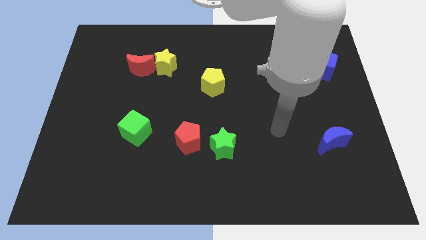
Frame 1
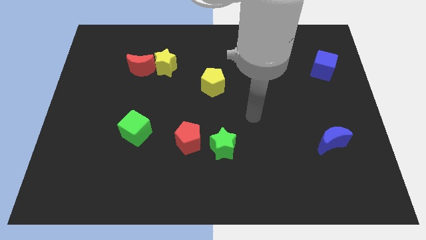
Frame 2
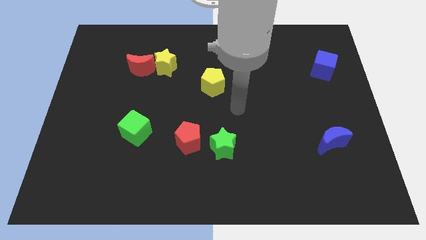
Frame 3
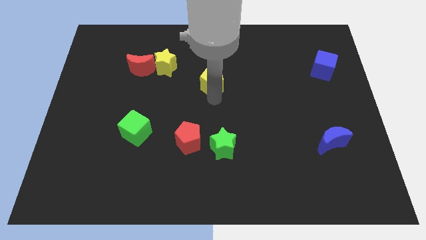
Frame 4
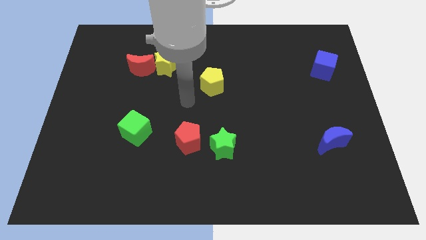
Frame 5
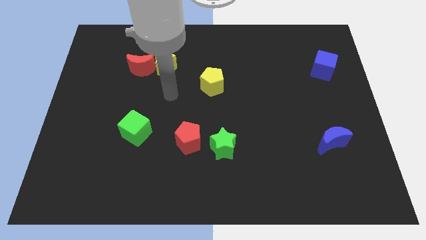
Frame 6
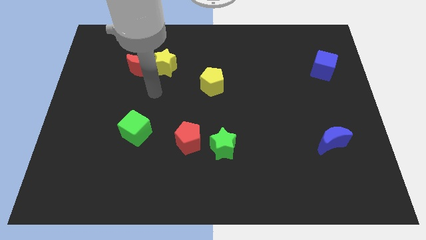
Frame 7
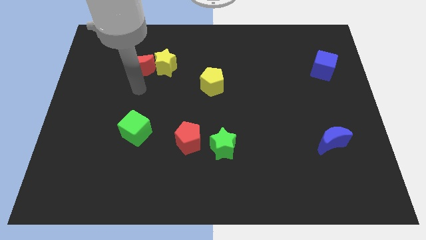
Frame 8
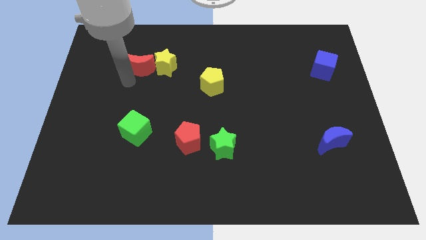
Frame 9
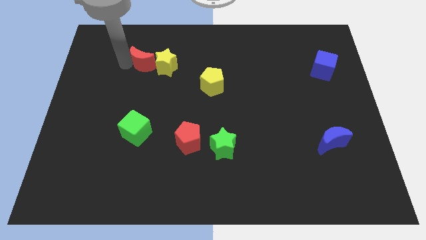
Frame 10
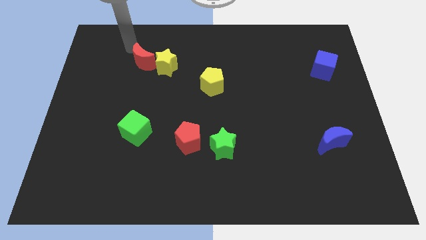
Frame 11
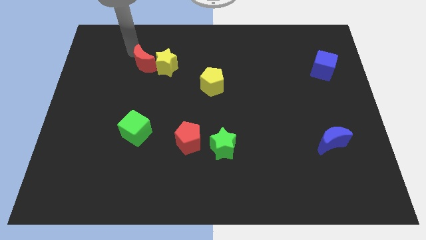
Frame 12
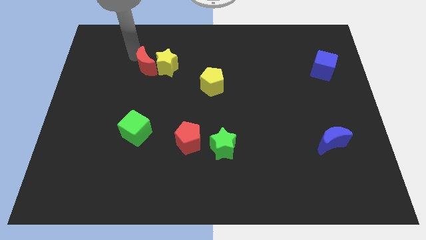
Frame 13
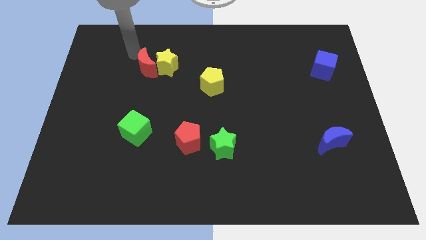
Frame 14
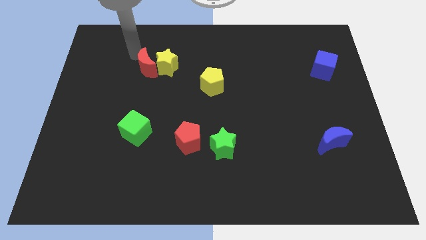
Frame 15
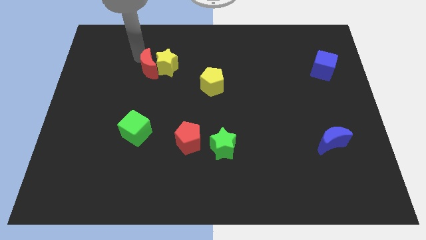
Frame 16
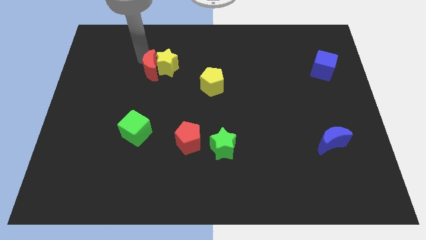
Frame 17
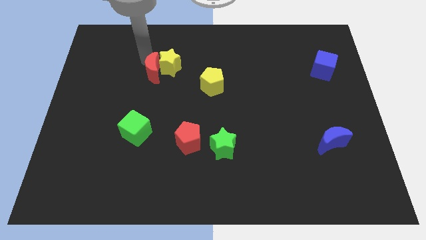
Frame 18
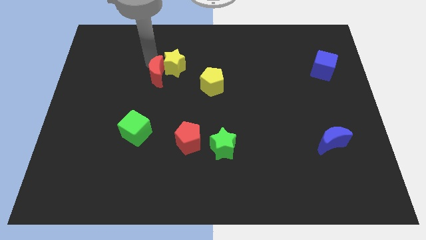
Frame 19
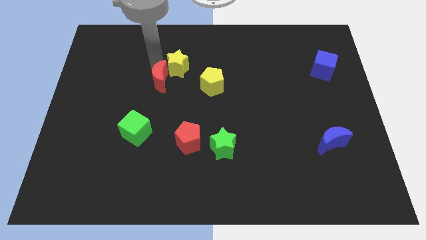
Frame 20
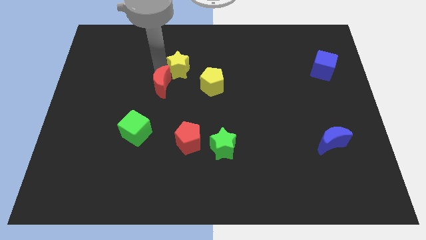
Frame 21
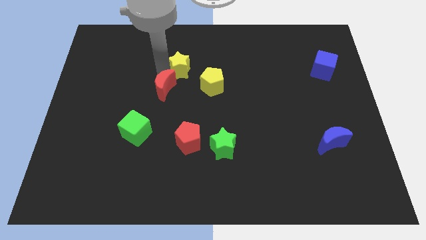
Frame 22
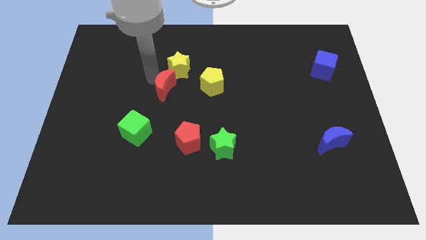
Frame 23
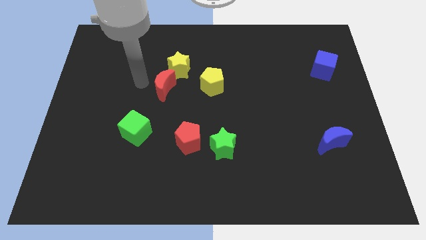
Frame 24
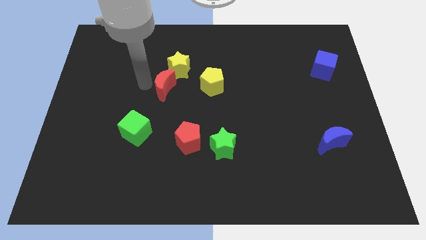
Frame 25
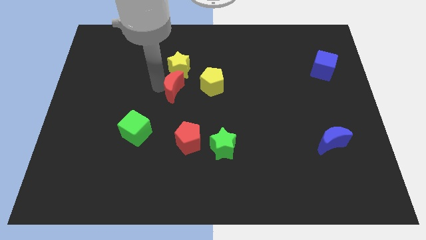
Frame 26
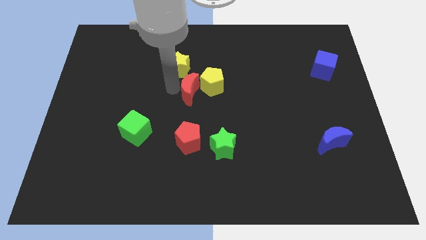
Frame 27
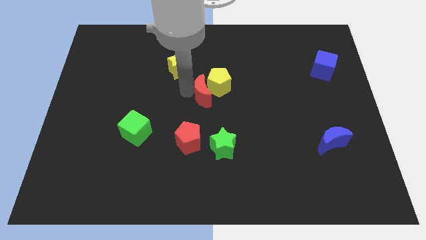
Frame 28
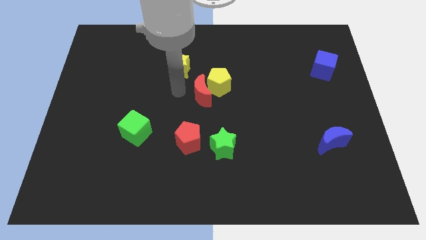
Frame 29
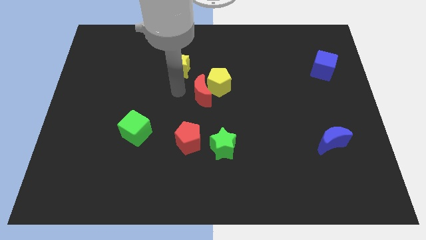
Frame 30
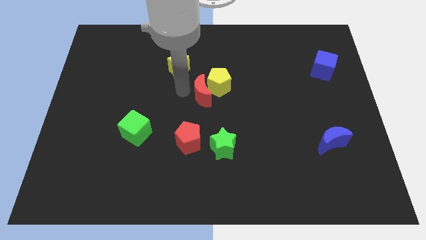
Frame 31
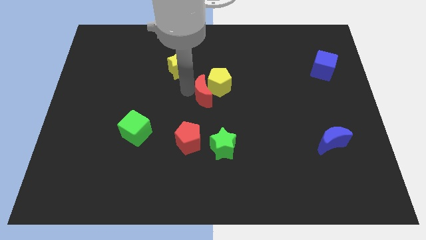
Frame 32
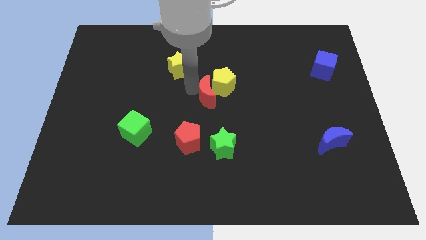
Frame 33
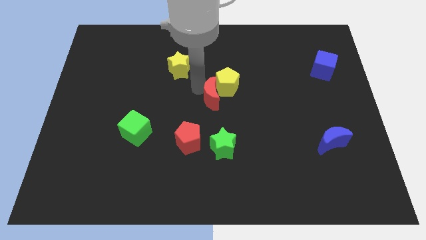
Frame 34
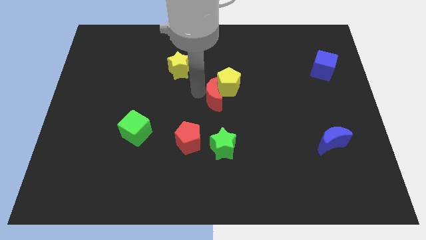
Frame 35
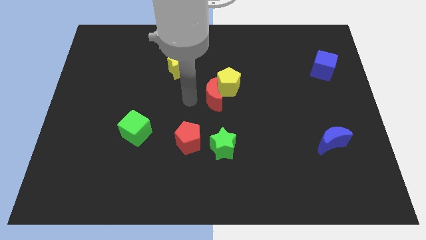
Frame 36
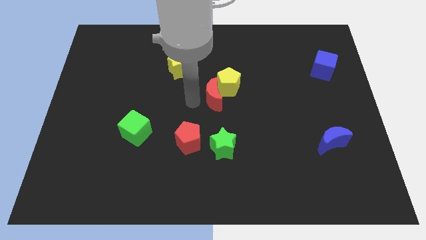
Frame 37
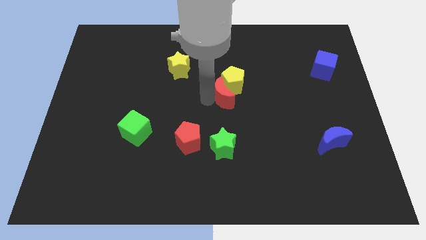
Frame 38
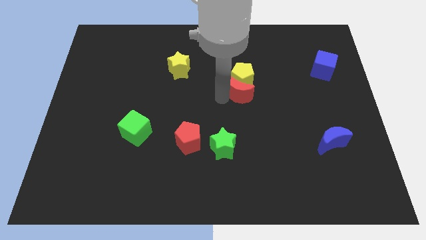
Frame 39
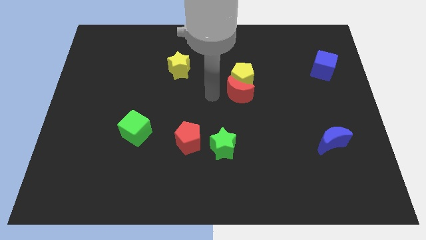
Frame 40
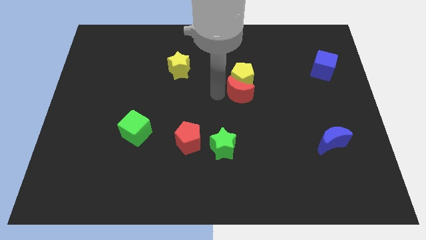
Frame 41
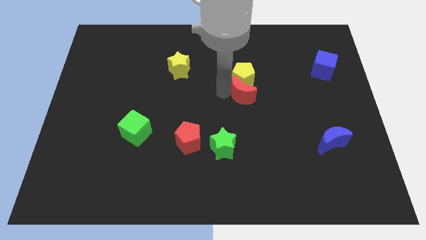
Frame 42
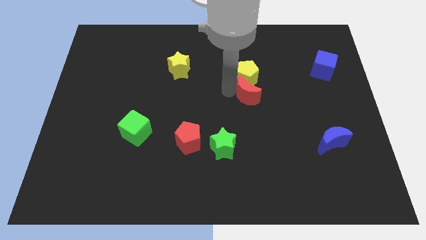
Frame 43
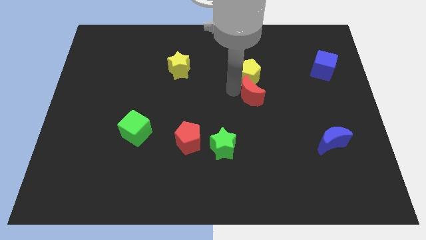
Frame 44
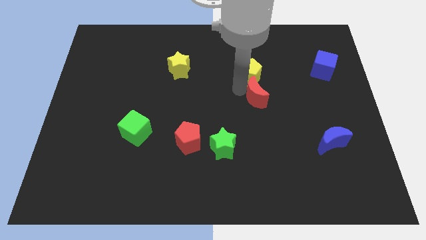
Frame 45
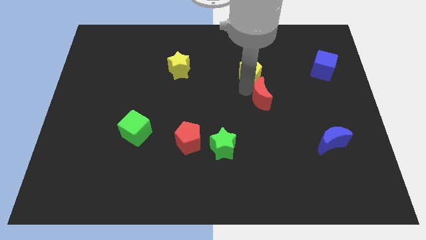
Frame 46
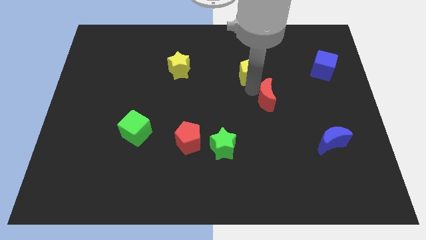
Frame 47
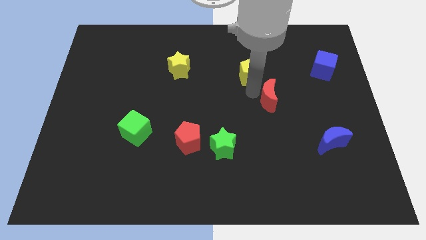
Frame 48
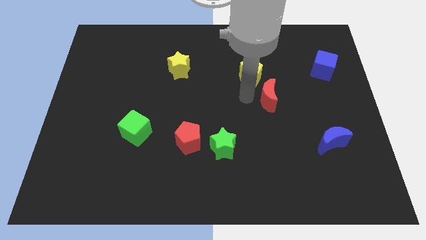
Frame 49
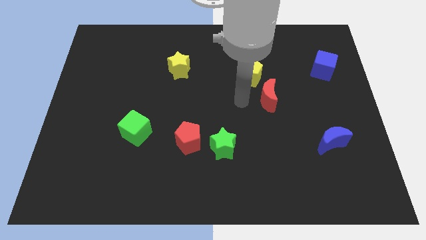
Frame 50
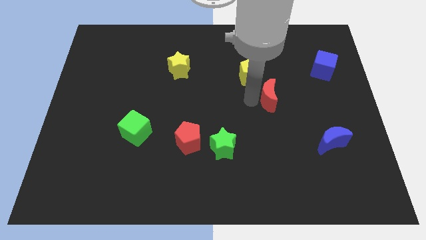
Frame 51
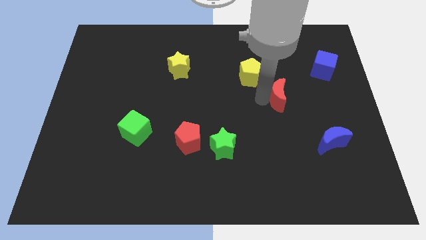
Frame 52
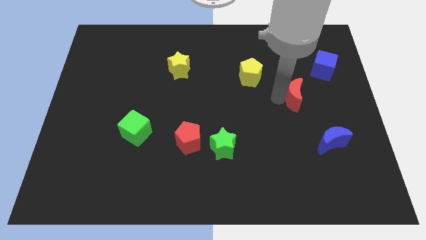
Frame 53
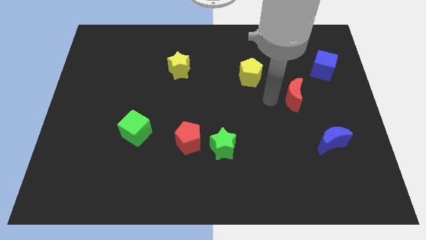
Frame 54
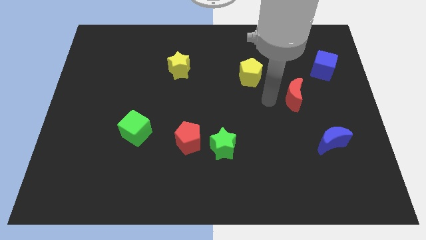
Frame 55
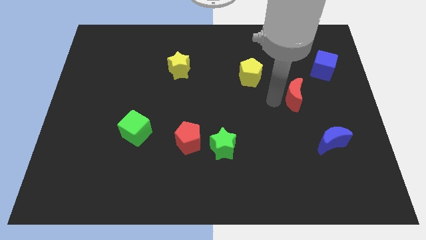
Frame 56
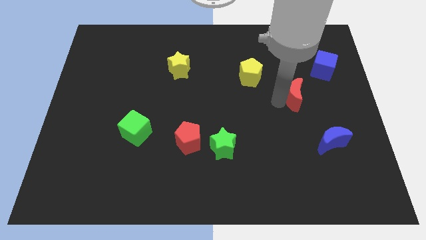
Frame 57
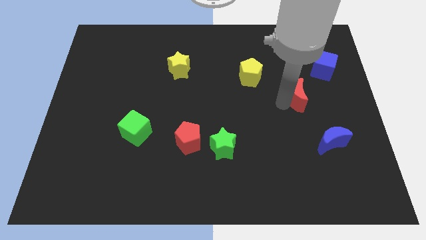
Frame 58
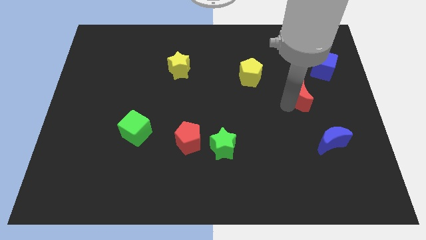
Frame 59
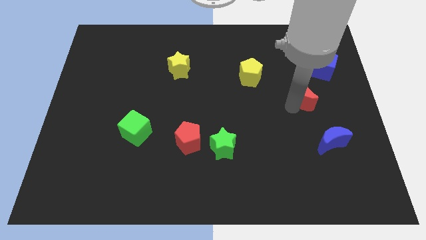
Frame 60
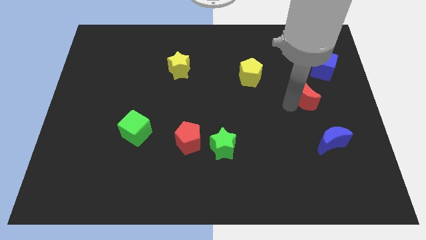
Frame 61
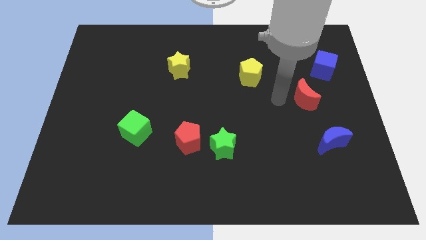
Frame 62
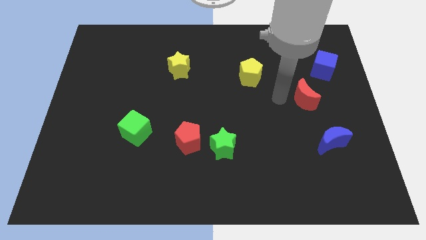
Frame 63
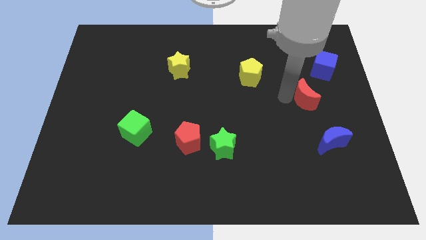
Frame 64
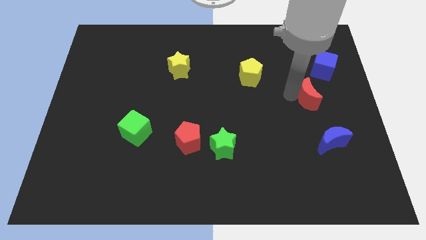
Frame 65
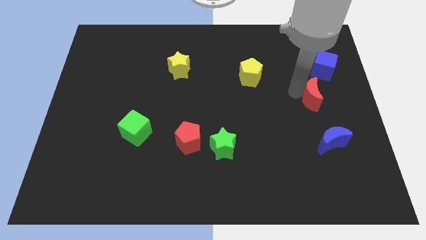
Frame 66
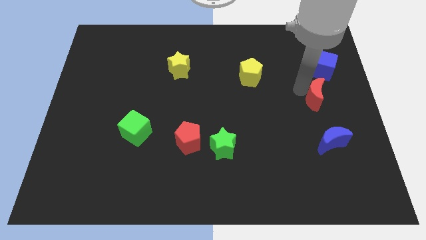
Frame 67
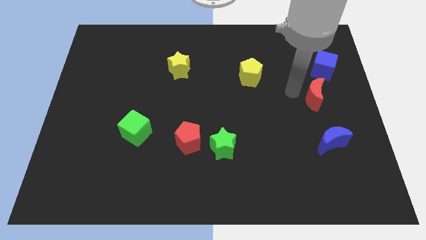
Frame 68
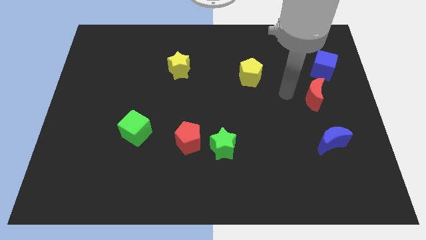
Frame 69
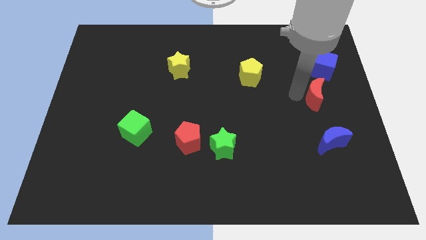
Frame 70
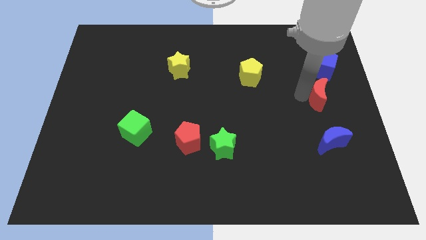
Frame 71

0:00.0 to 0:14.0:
put the red moon to the center right
